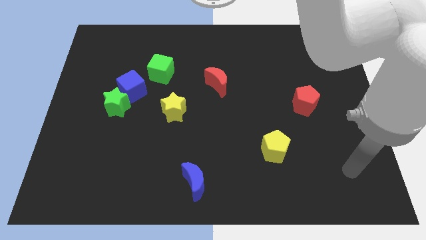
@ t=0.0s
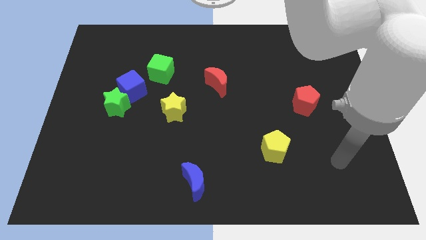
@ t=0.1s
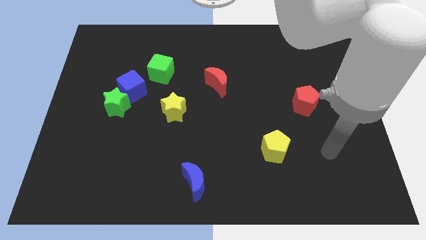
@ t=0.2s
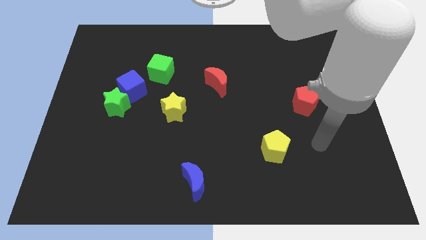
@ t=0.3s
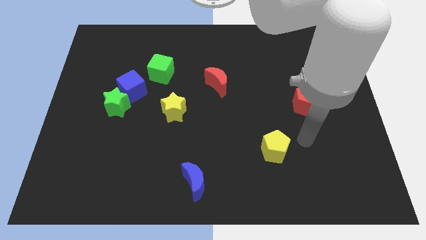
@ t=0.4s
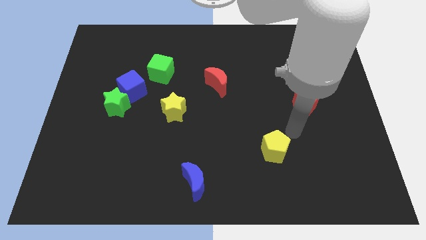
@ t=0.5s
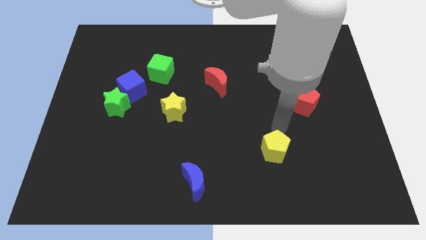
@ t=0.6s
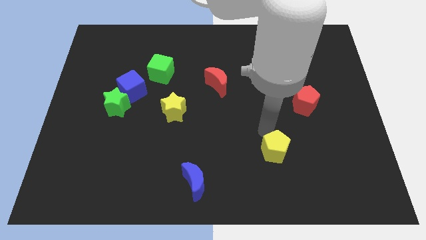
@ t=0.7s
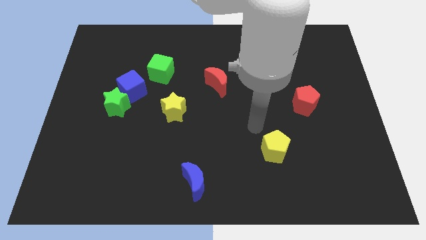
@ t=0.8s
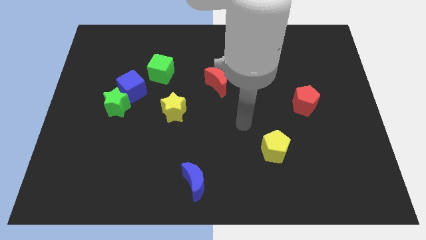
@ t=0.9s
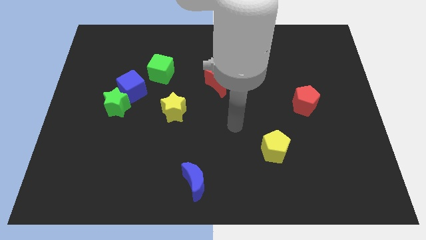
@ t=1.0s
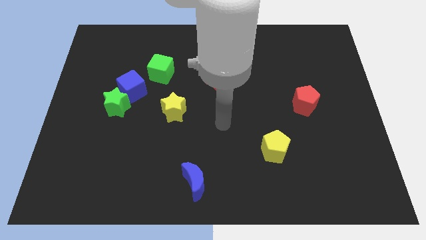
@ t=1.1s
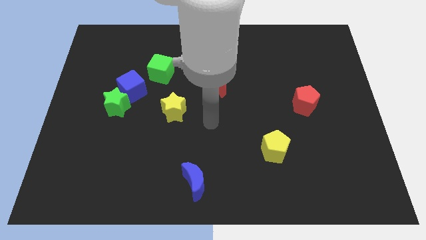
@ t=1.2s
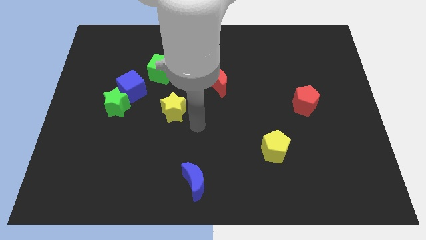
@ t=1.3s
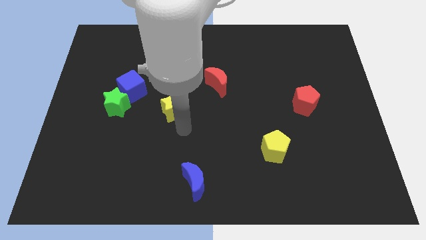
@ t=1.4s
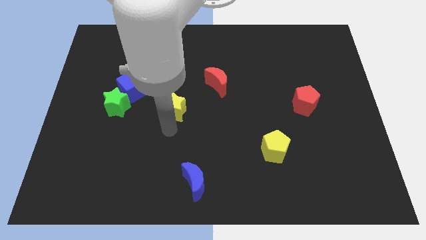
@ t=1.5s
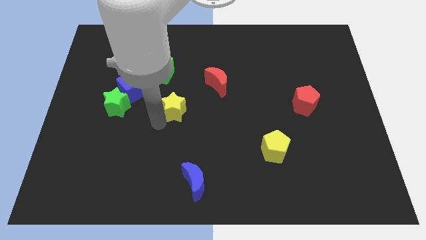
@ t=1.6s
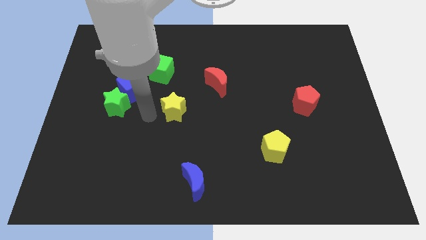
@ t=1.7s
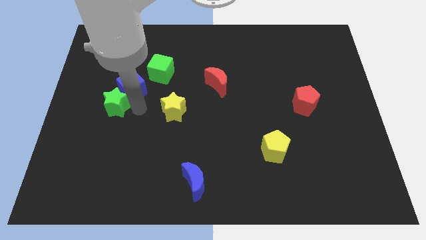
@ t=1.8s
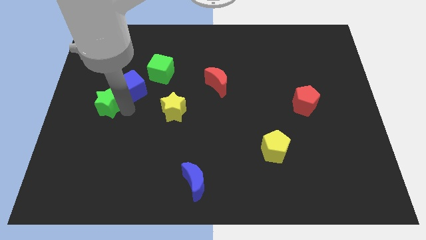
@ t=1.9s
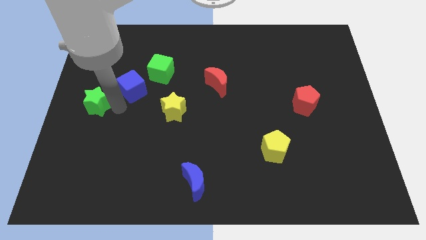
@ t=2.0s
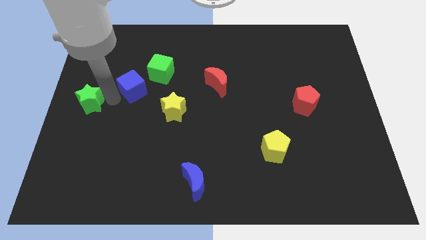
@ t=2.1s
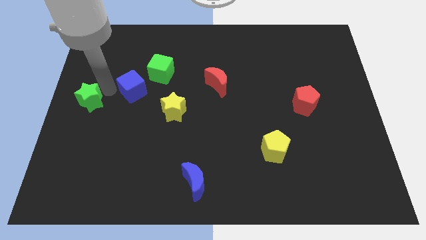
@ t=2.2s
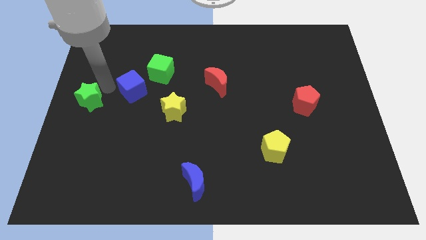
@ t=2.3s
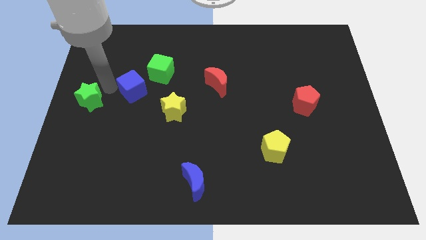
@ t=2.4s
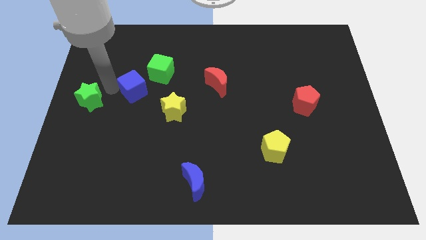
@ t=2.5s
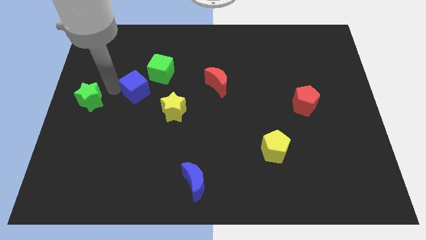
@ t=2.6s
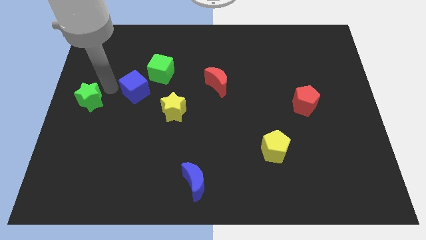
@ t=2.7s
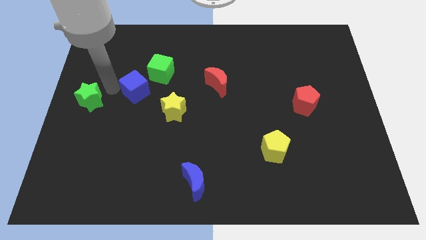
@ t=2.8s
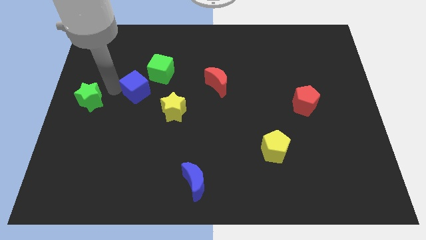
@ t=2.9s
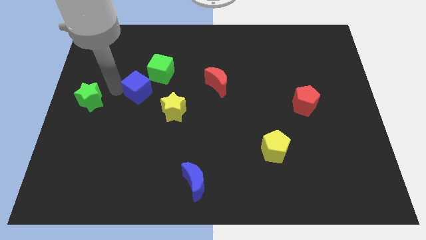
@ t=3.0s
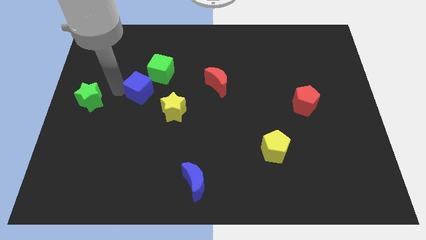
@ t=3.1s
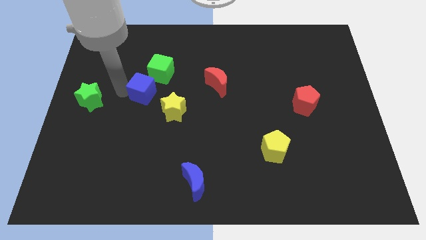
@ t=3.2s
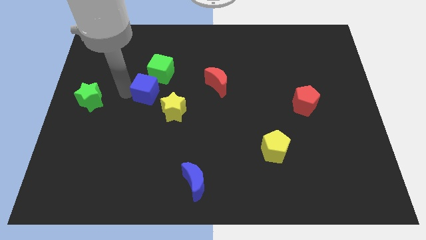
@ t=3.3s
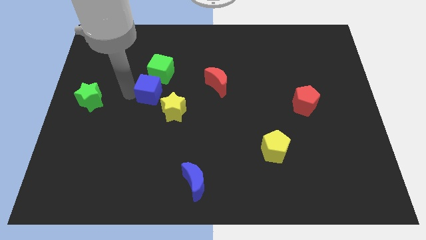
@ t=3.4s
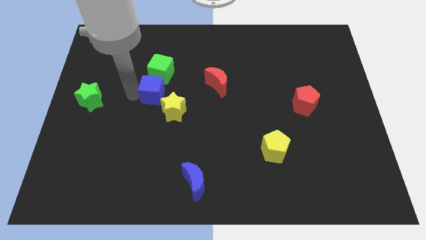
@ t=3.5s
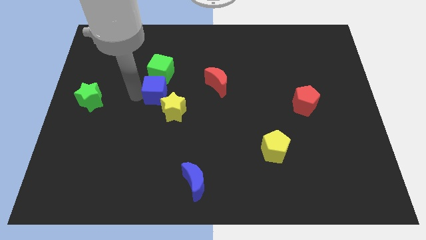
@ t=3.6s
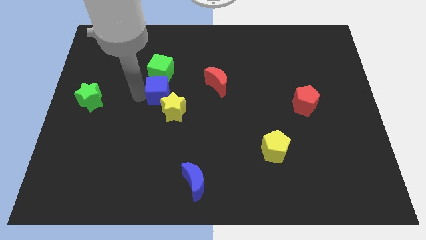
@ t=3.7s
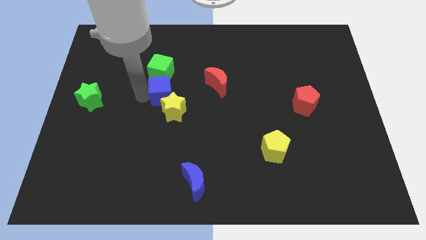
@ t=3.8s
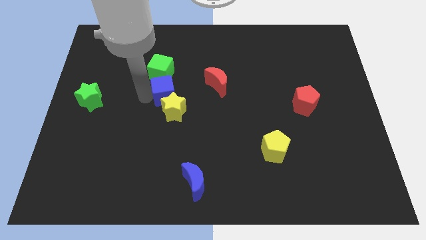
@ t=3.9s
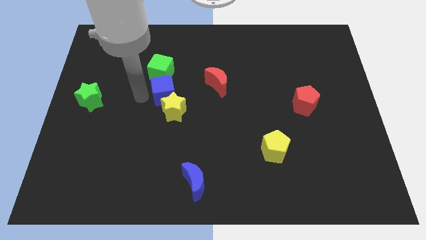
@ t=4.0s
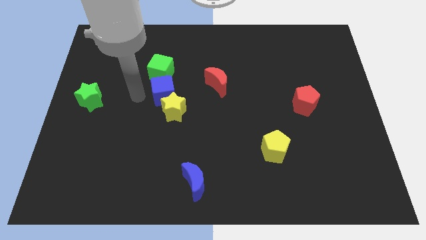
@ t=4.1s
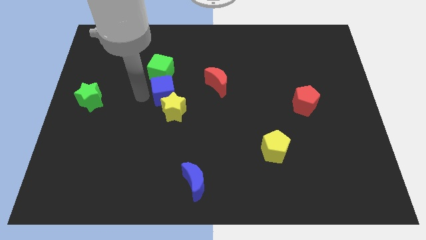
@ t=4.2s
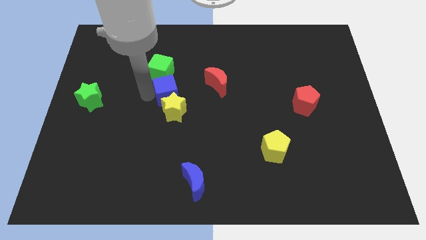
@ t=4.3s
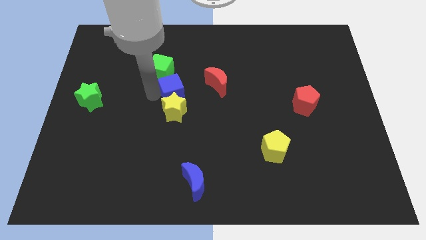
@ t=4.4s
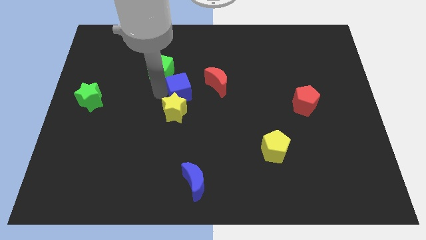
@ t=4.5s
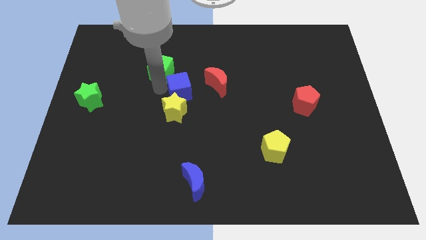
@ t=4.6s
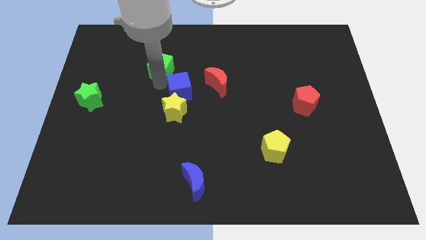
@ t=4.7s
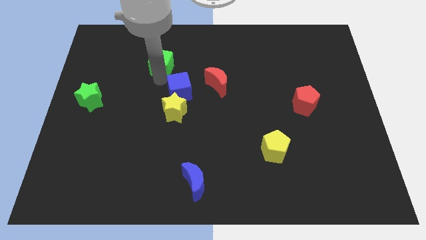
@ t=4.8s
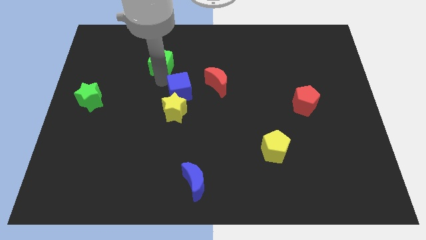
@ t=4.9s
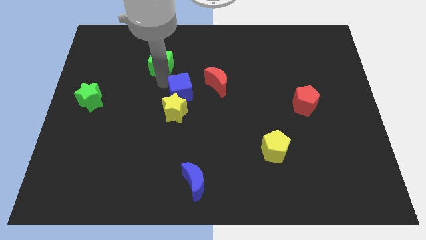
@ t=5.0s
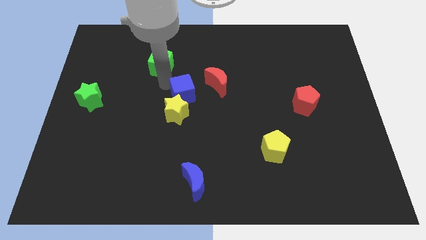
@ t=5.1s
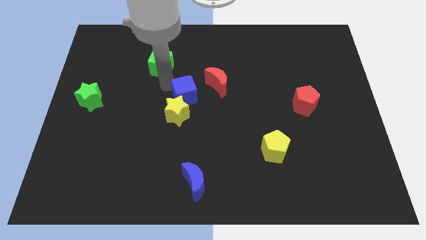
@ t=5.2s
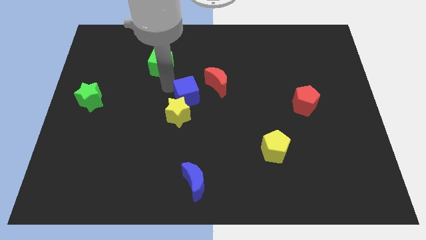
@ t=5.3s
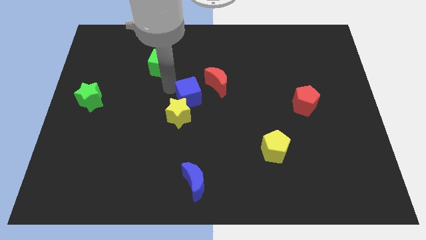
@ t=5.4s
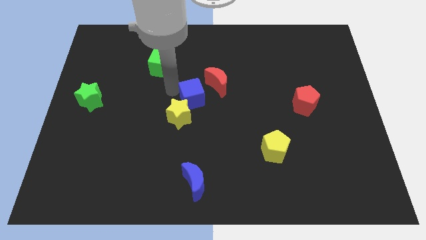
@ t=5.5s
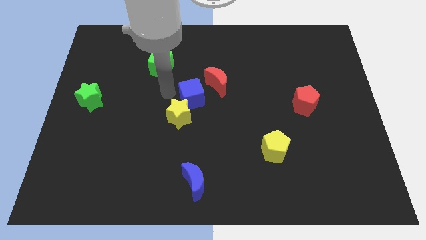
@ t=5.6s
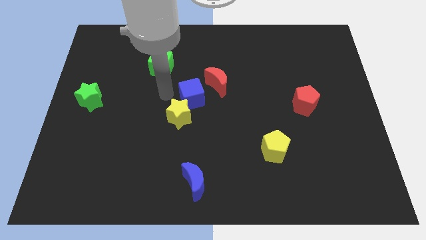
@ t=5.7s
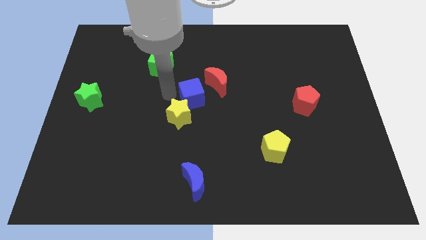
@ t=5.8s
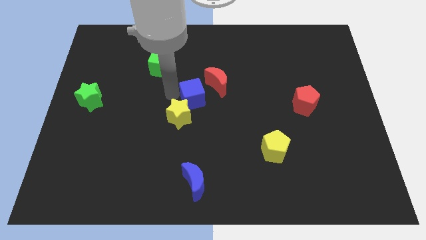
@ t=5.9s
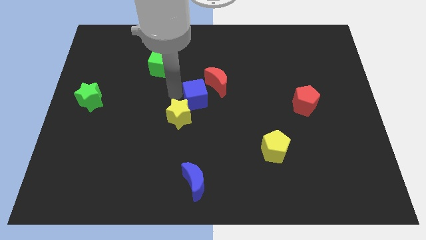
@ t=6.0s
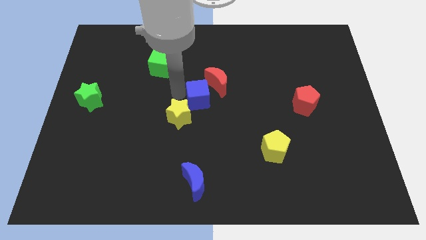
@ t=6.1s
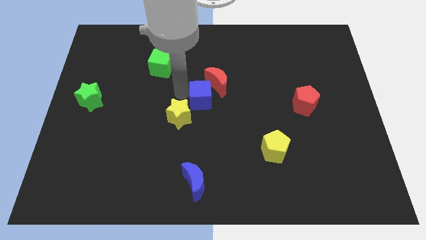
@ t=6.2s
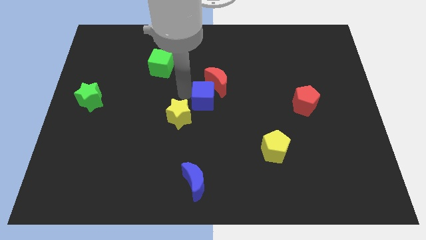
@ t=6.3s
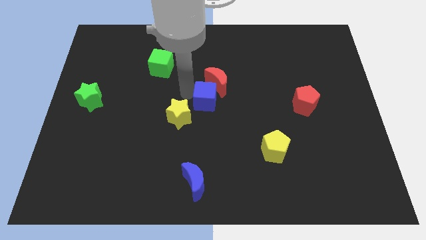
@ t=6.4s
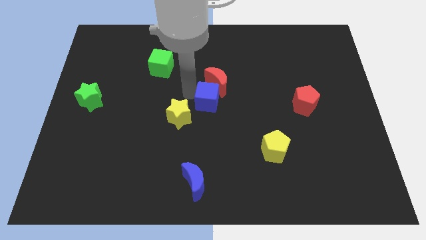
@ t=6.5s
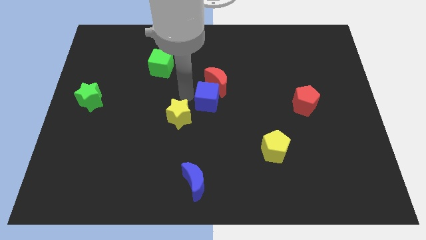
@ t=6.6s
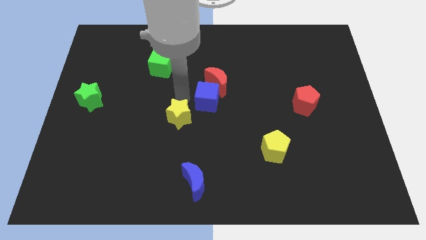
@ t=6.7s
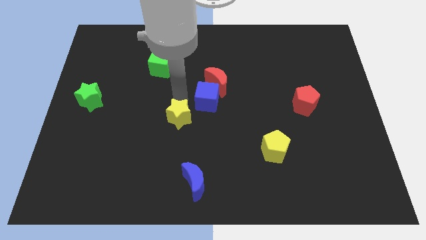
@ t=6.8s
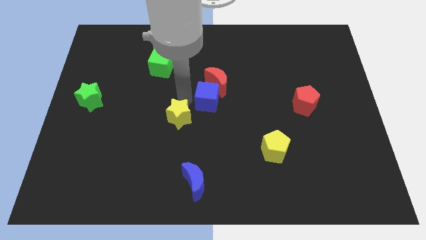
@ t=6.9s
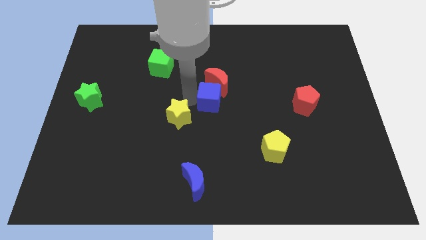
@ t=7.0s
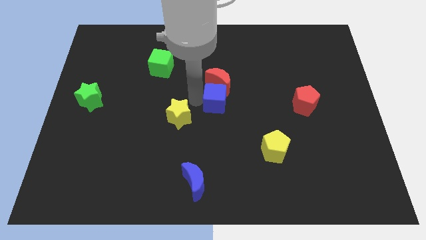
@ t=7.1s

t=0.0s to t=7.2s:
move the blue cube to the right

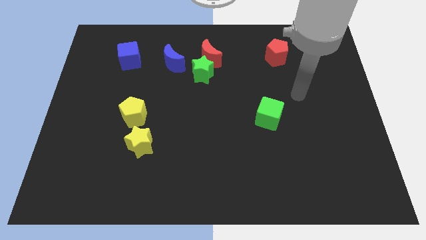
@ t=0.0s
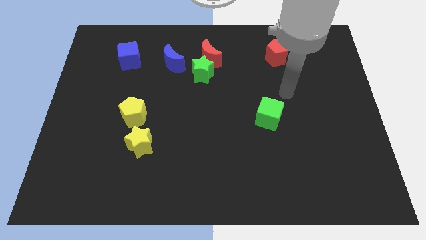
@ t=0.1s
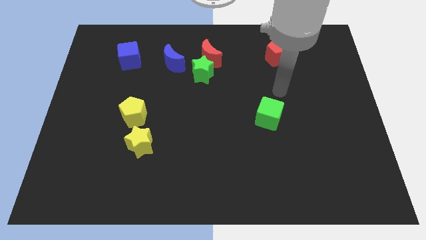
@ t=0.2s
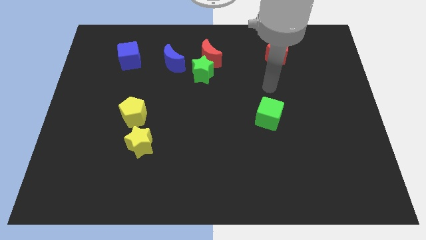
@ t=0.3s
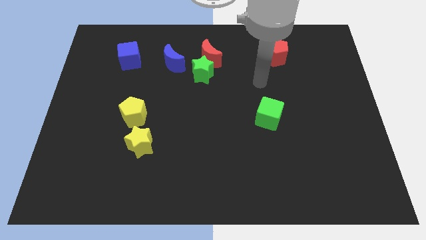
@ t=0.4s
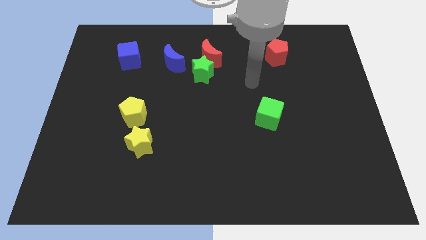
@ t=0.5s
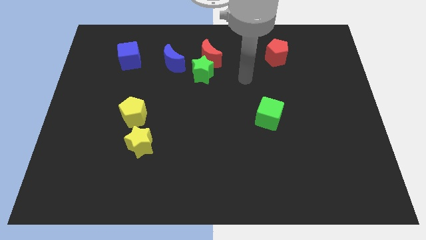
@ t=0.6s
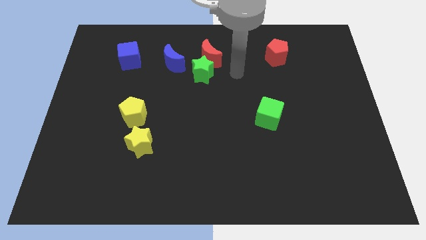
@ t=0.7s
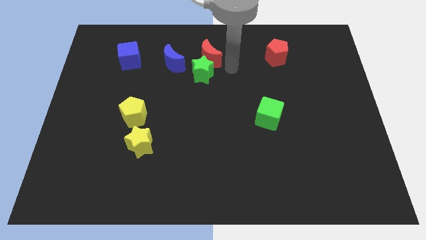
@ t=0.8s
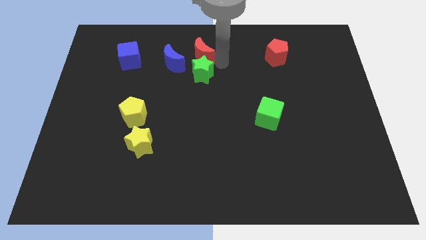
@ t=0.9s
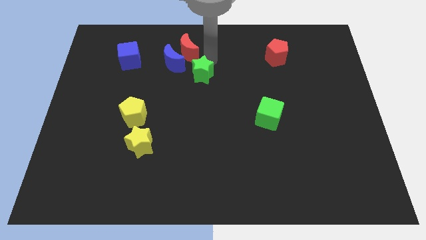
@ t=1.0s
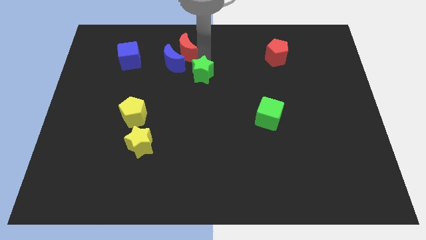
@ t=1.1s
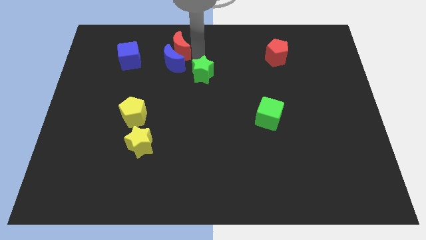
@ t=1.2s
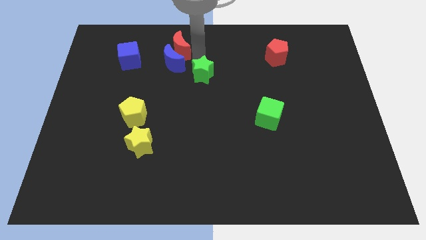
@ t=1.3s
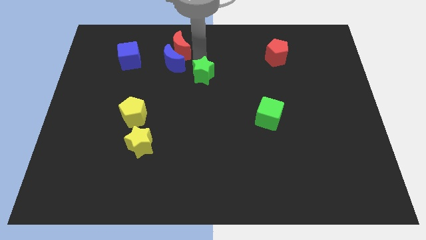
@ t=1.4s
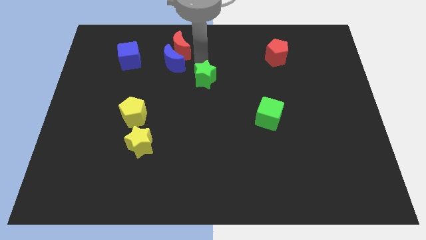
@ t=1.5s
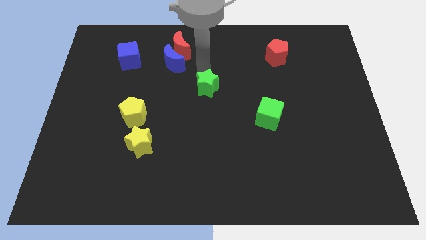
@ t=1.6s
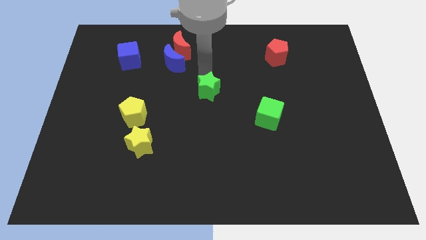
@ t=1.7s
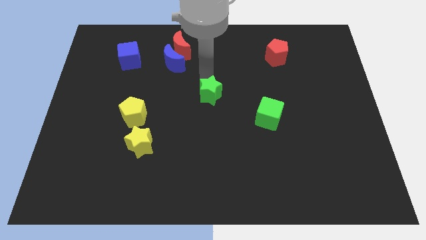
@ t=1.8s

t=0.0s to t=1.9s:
slightly slide the green star down
